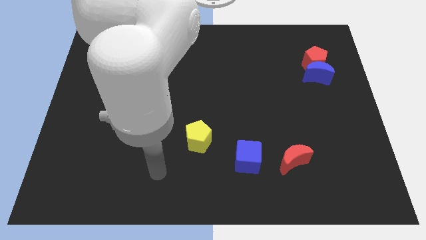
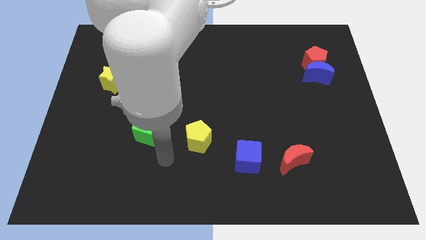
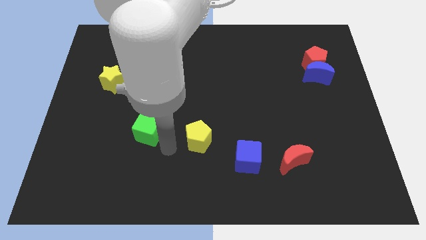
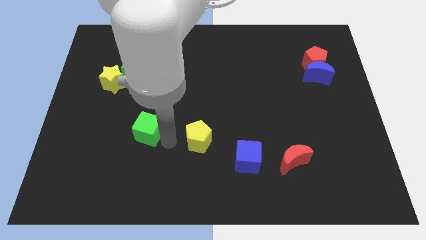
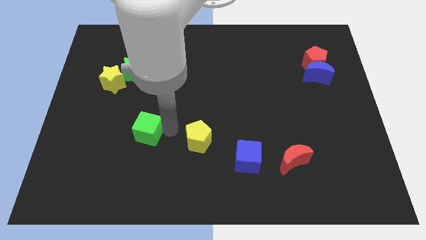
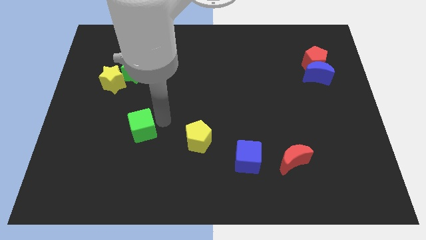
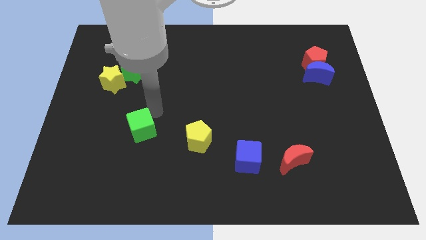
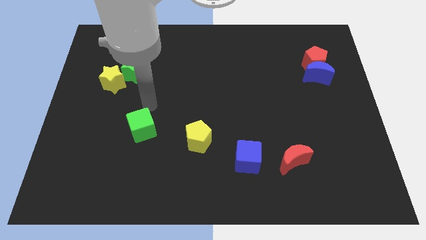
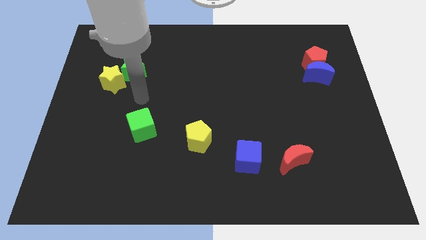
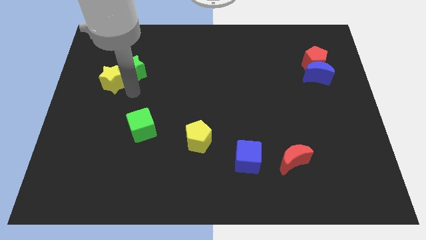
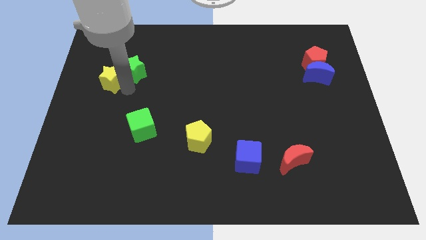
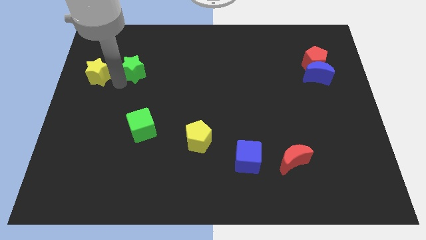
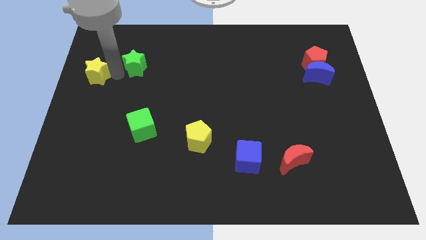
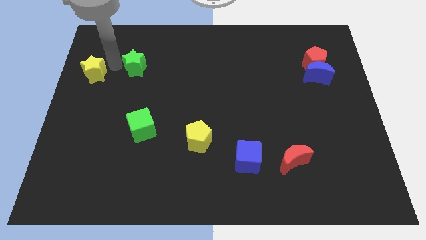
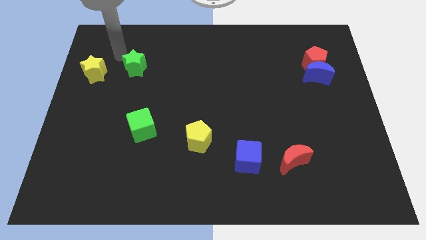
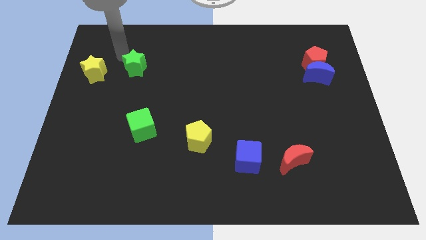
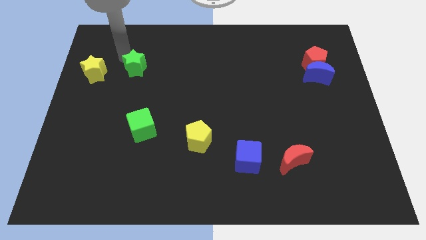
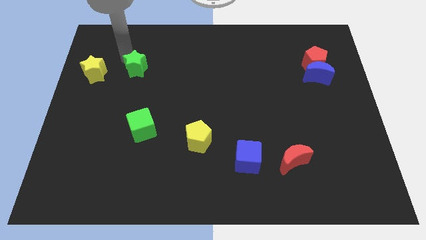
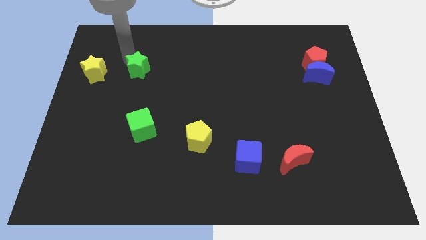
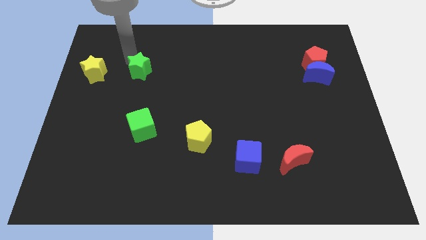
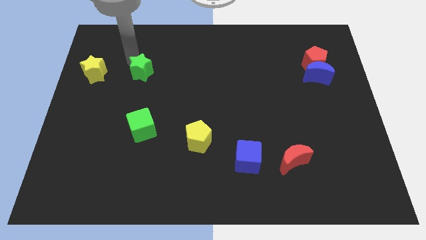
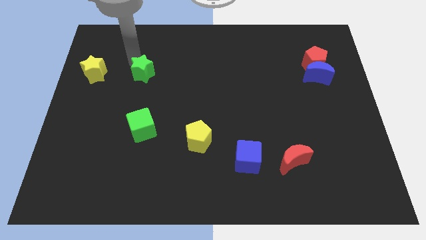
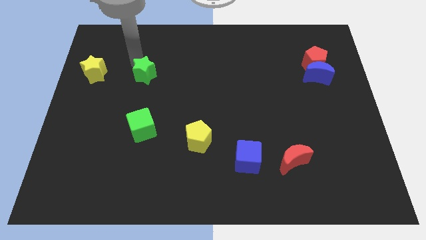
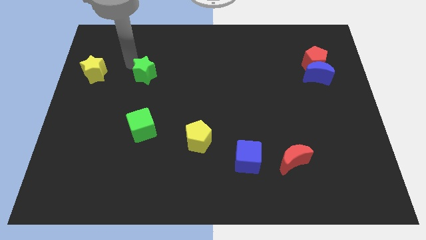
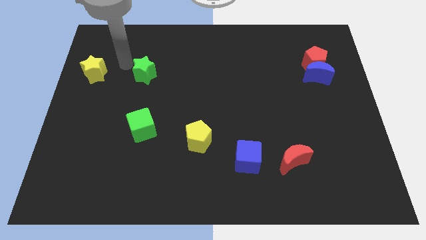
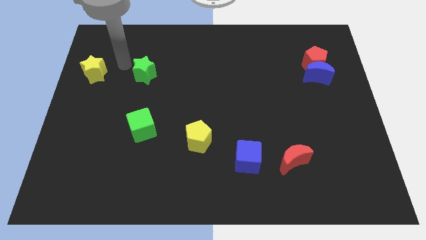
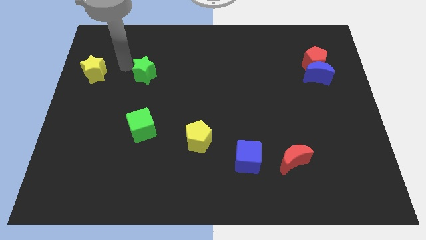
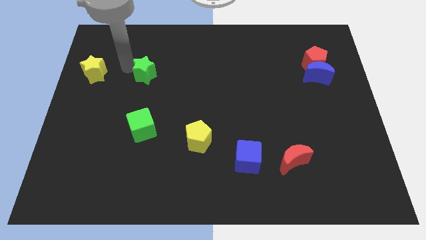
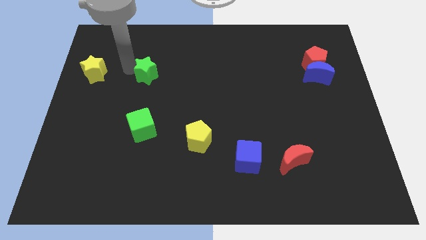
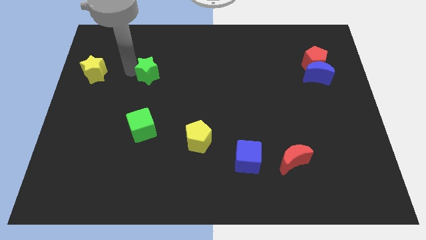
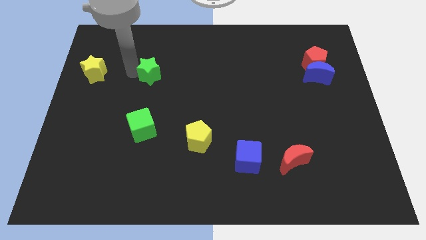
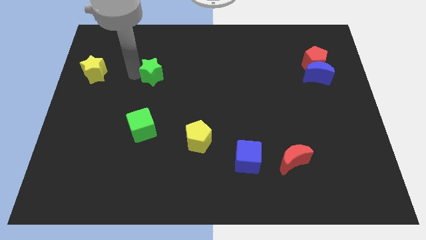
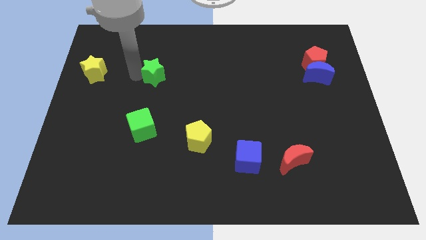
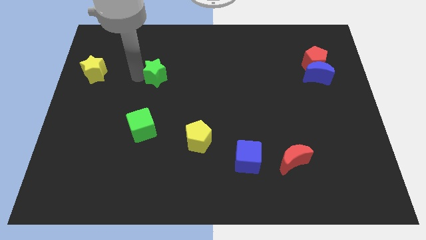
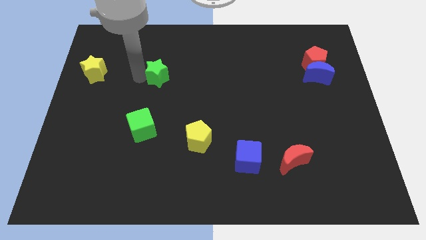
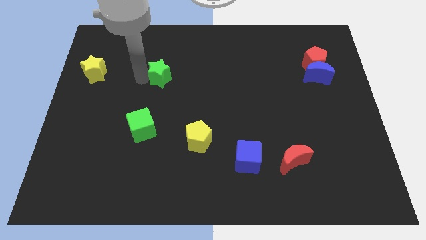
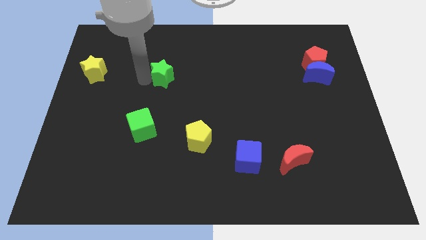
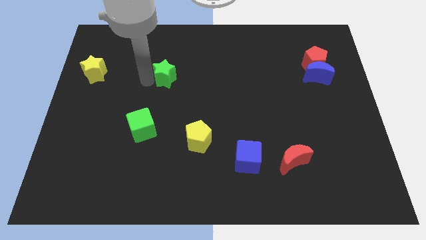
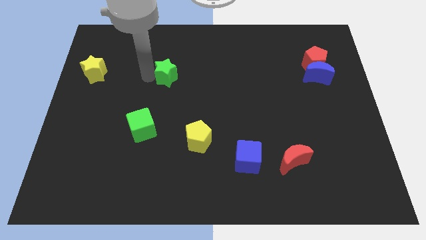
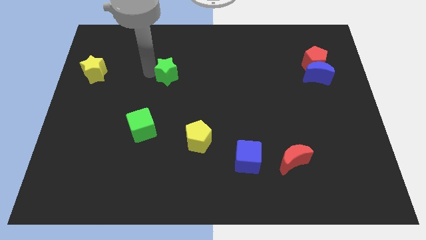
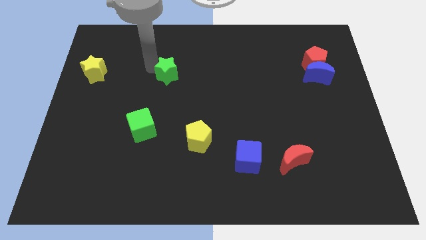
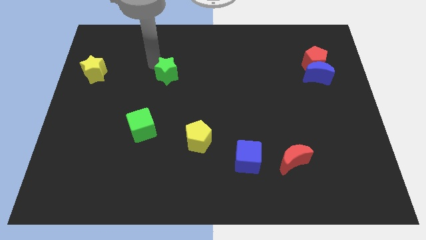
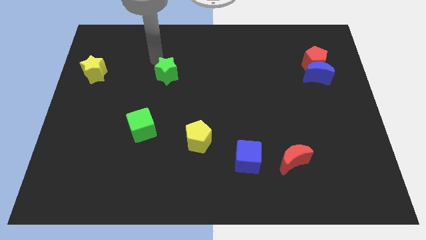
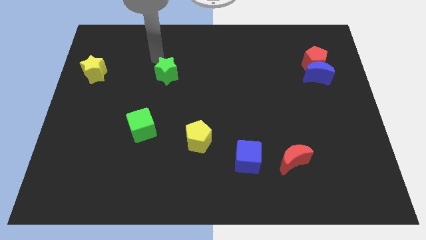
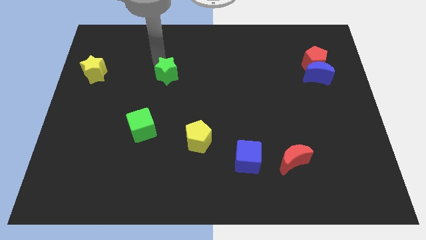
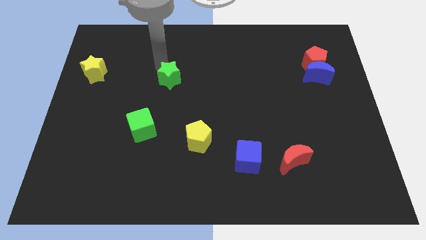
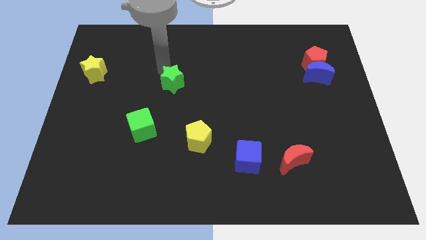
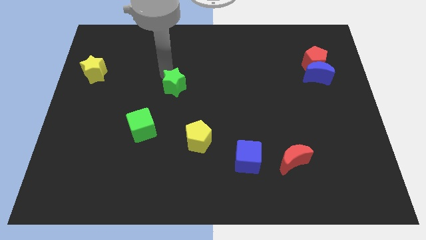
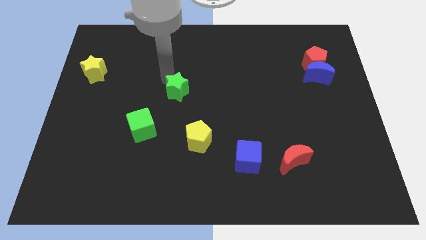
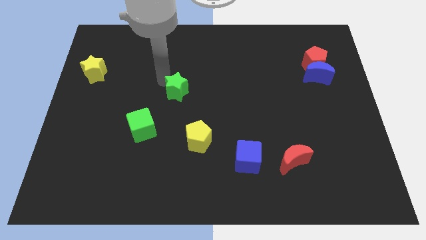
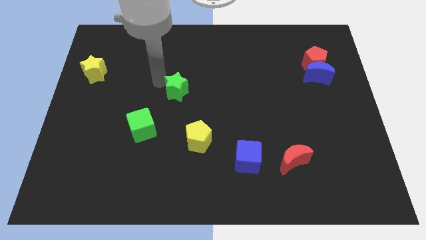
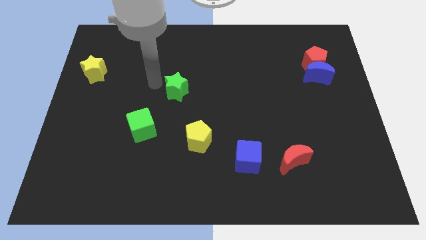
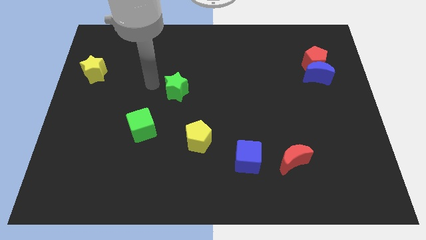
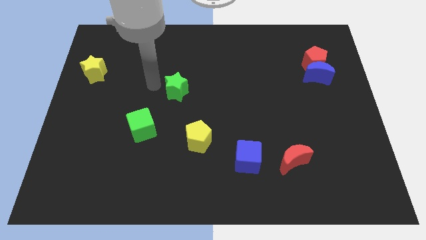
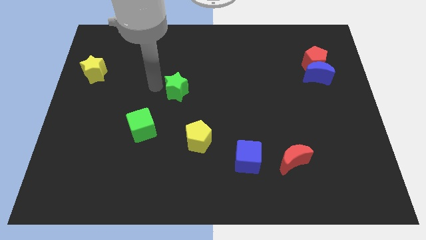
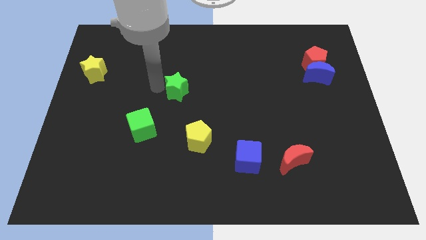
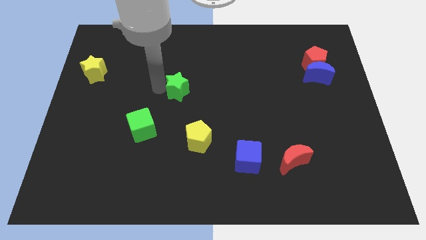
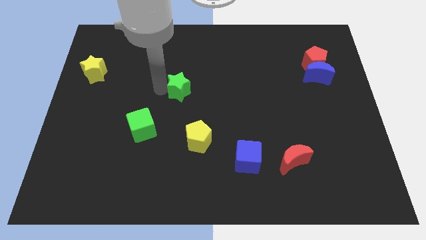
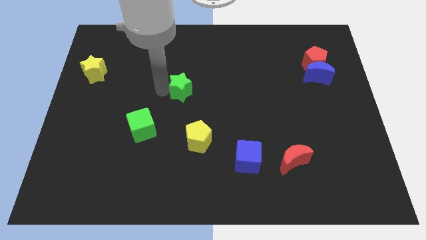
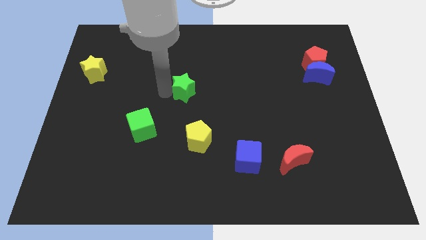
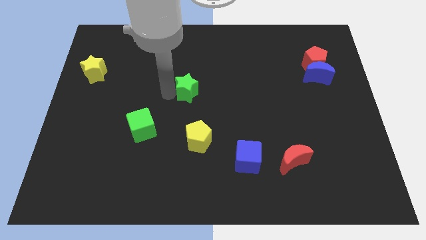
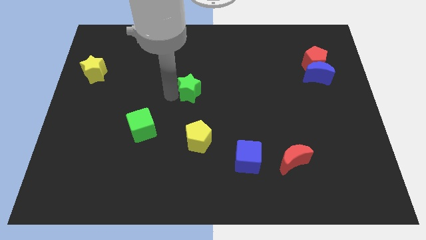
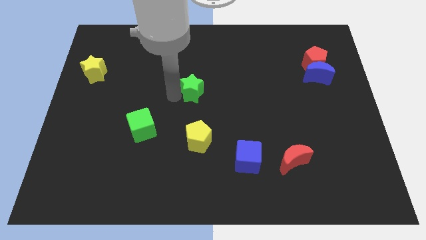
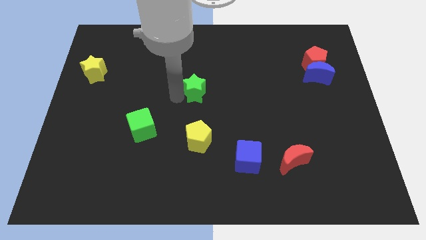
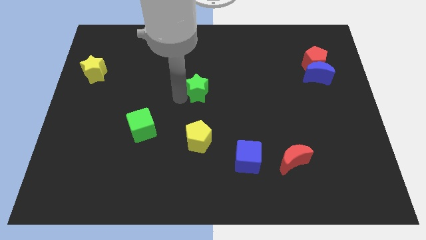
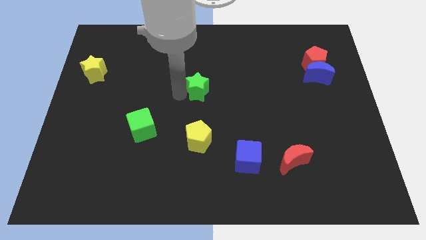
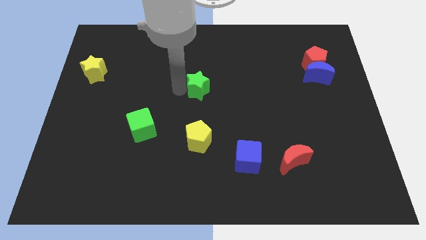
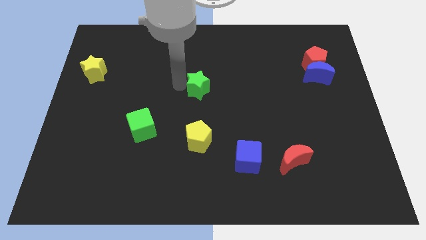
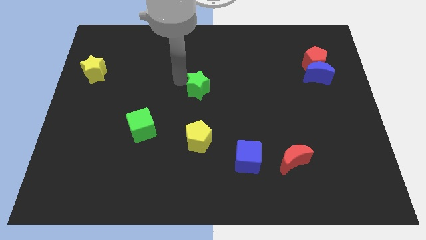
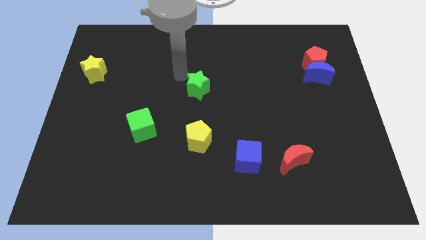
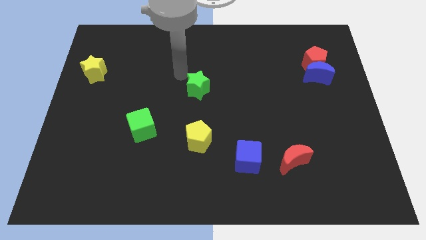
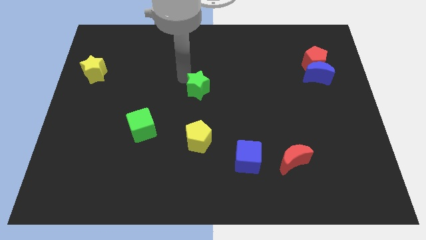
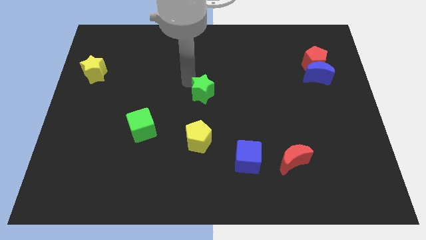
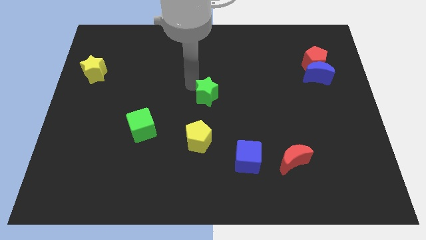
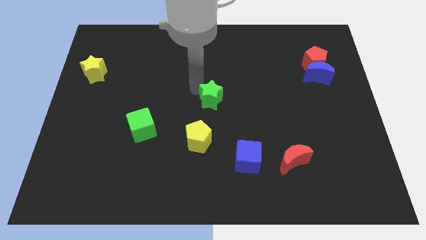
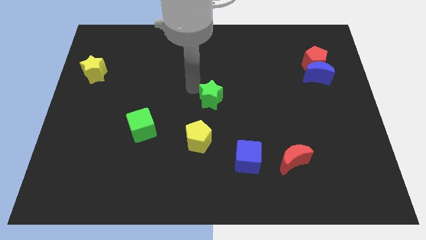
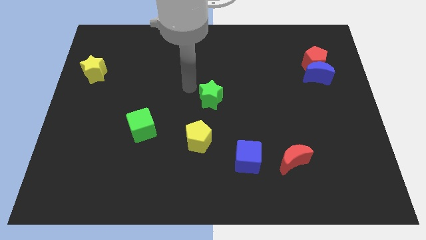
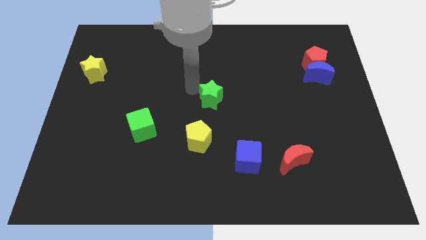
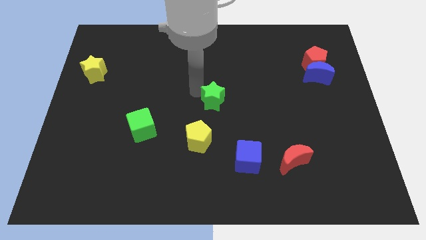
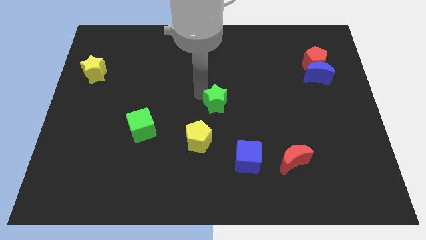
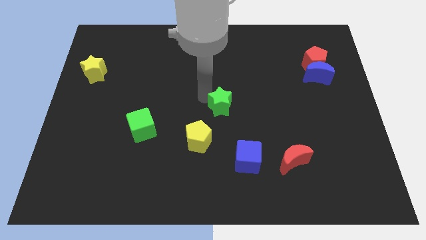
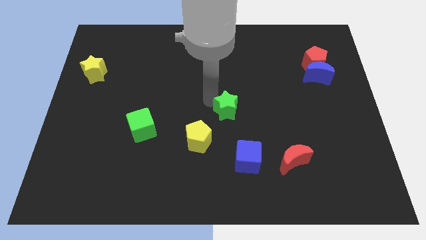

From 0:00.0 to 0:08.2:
slide the green star above the blue cube
